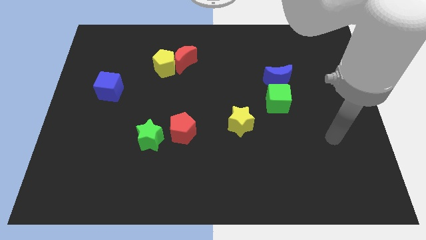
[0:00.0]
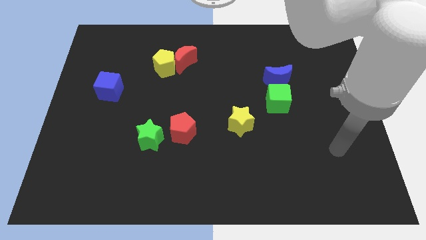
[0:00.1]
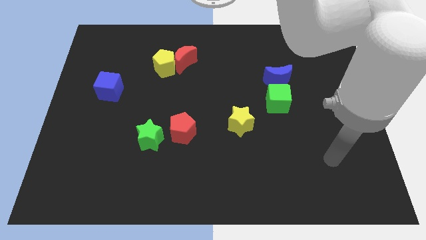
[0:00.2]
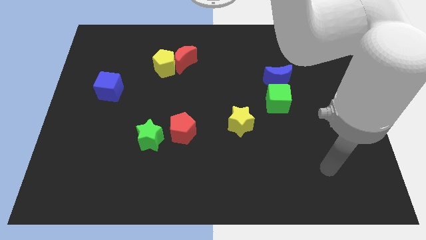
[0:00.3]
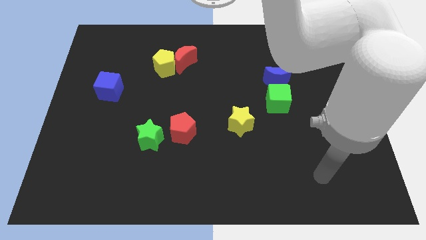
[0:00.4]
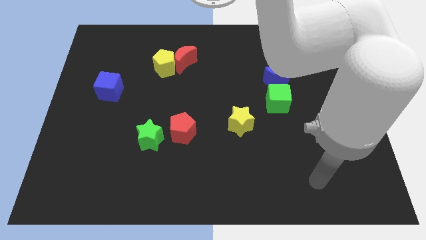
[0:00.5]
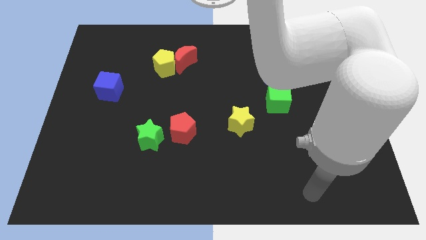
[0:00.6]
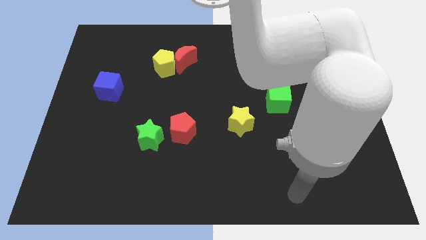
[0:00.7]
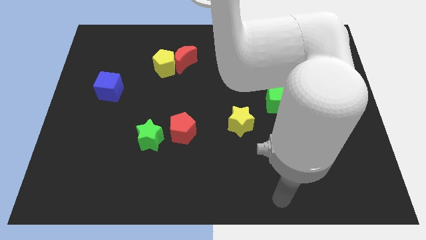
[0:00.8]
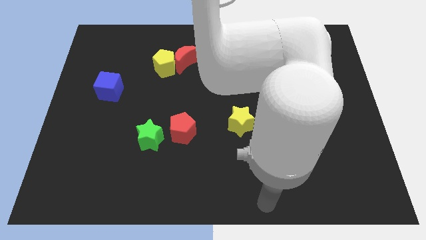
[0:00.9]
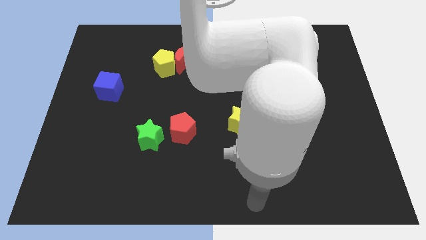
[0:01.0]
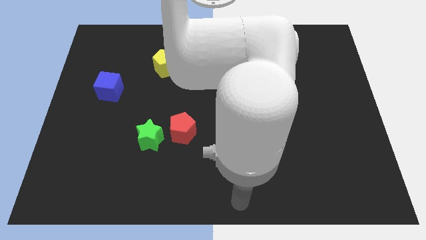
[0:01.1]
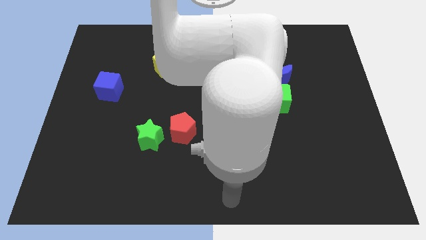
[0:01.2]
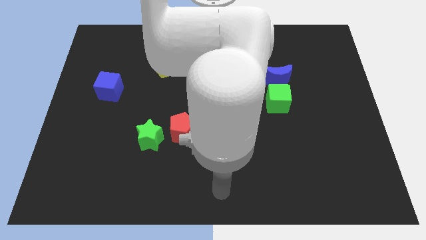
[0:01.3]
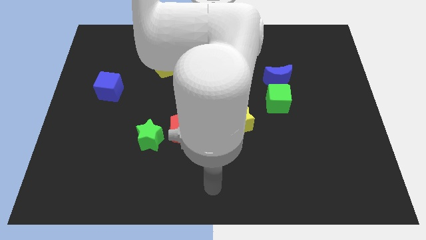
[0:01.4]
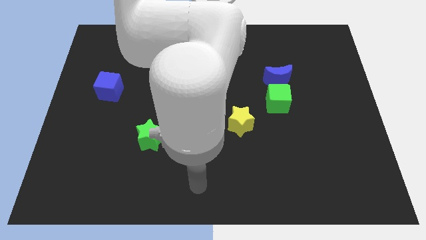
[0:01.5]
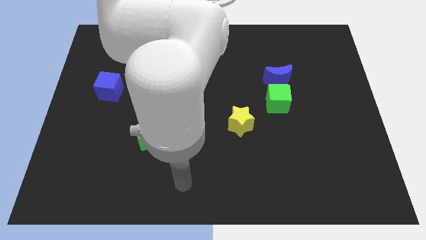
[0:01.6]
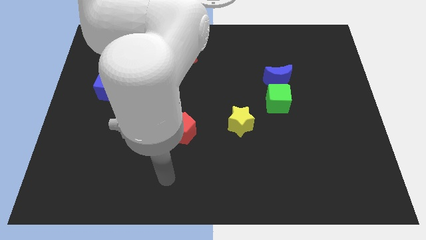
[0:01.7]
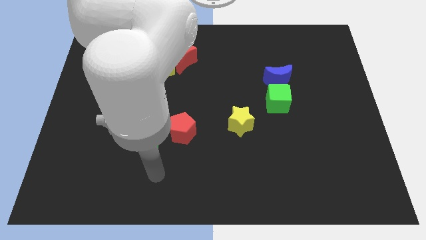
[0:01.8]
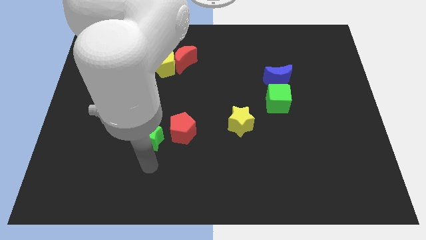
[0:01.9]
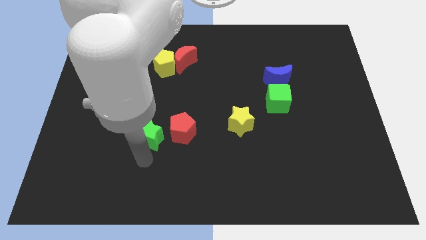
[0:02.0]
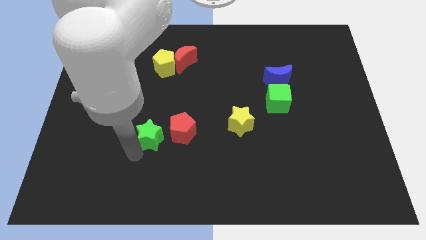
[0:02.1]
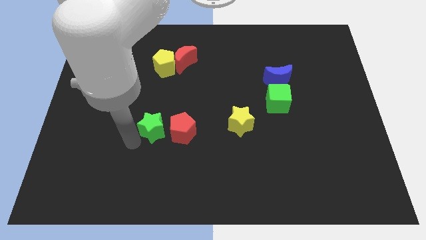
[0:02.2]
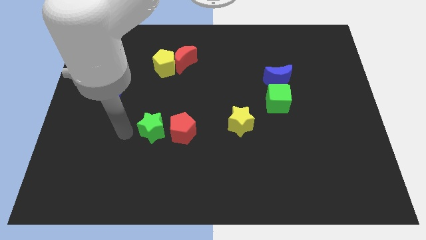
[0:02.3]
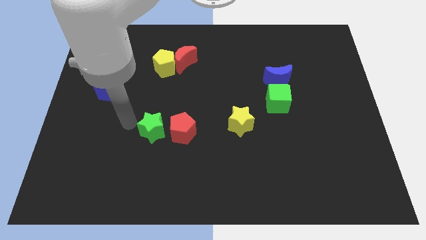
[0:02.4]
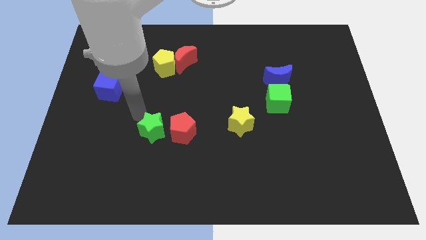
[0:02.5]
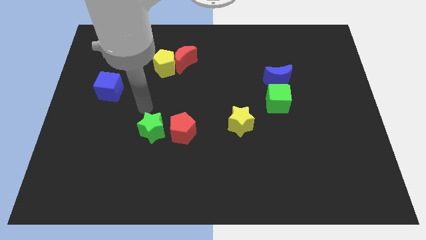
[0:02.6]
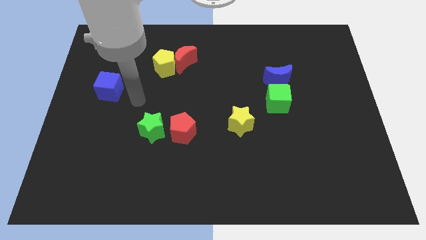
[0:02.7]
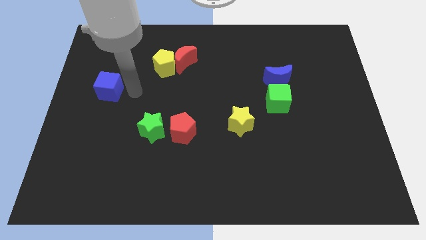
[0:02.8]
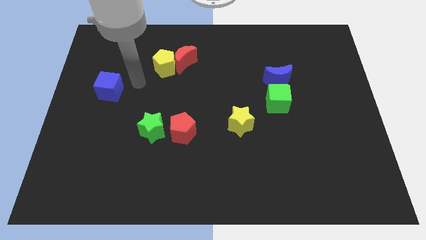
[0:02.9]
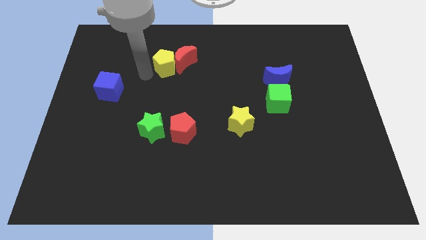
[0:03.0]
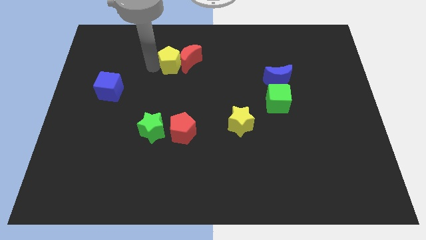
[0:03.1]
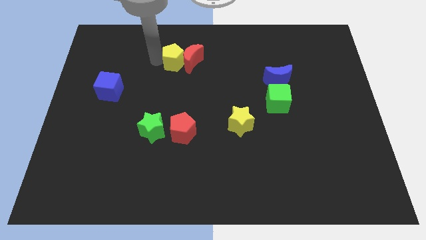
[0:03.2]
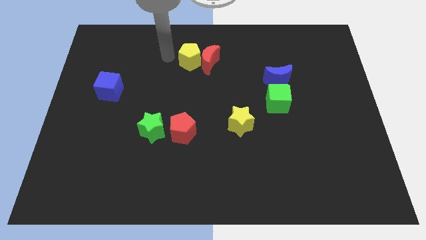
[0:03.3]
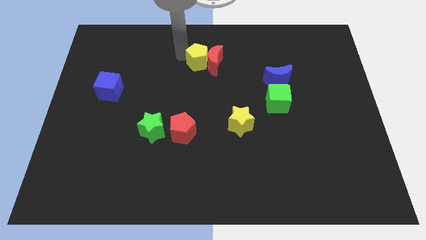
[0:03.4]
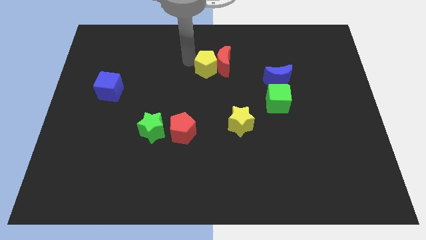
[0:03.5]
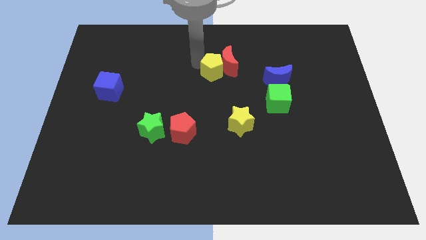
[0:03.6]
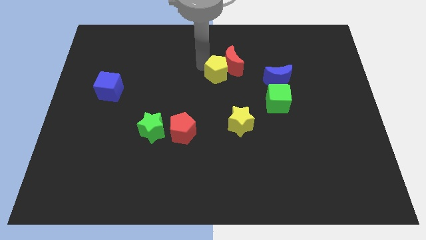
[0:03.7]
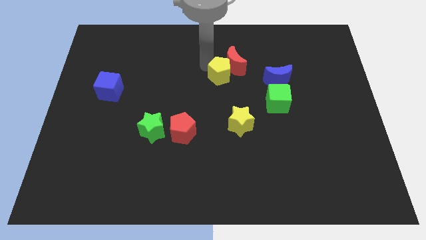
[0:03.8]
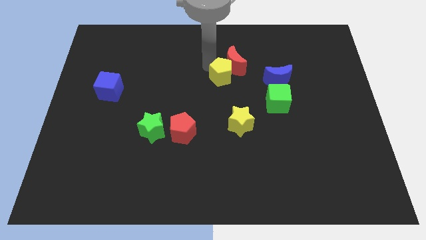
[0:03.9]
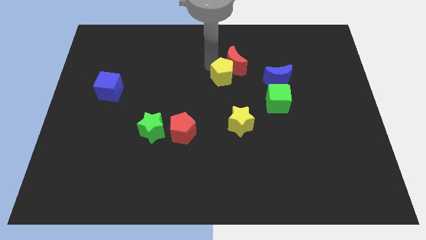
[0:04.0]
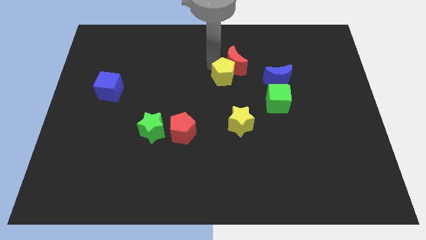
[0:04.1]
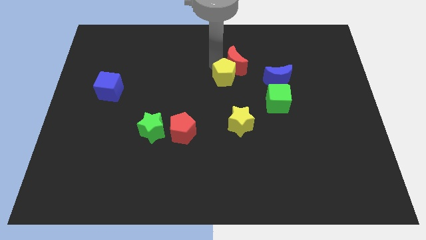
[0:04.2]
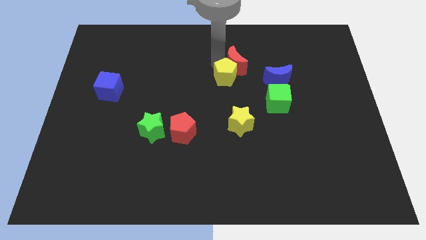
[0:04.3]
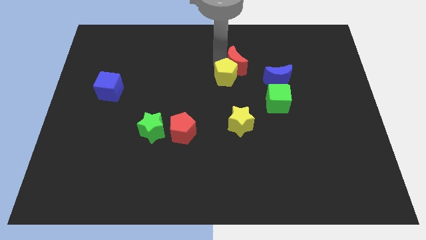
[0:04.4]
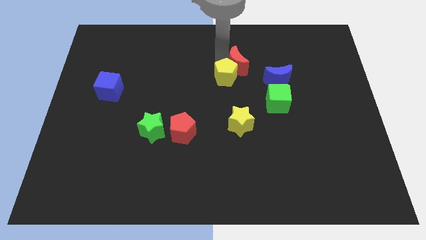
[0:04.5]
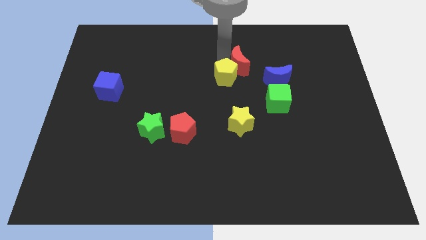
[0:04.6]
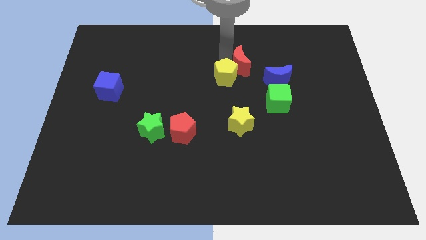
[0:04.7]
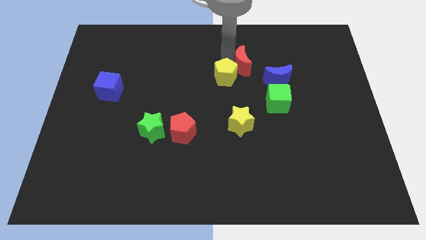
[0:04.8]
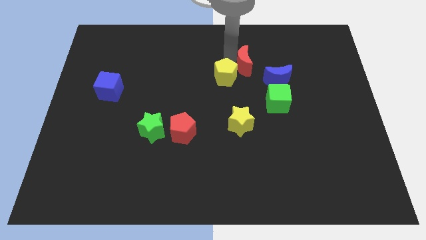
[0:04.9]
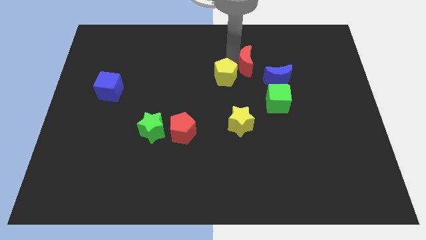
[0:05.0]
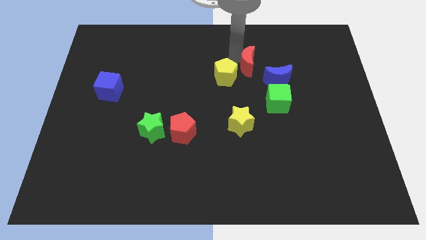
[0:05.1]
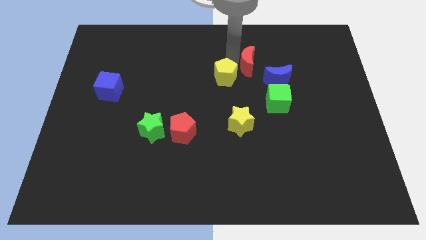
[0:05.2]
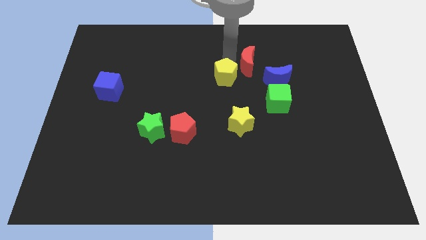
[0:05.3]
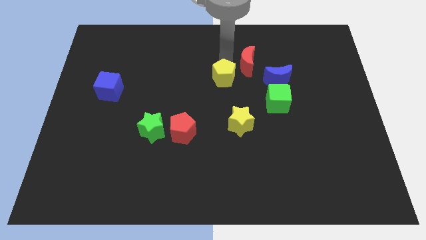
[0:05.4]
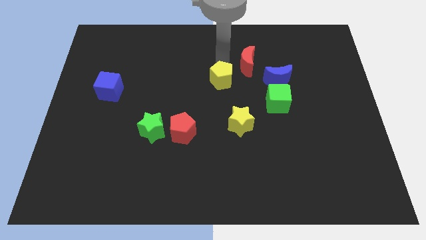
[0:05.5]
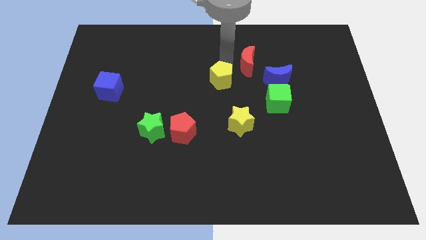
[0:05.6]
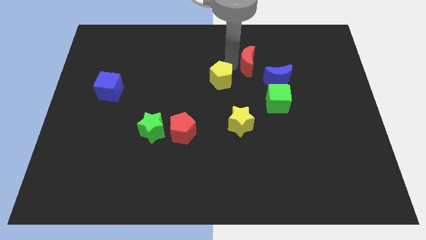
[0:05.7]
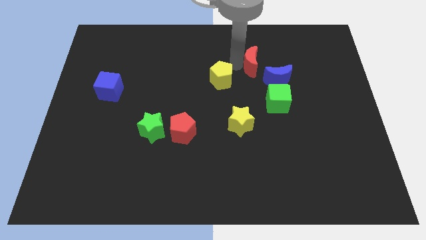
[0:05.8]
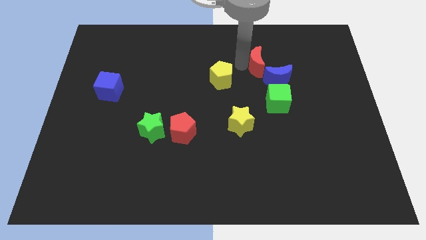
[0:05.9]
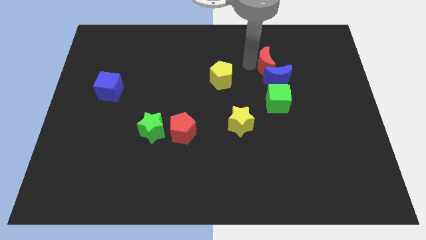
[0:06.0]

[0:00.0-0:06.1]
slide the red moon to the right

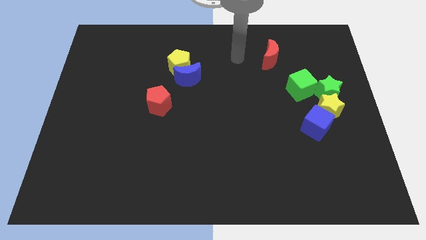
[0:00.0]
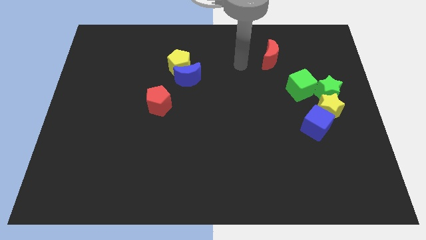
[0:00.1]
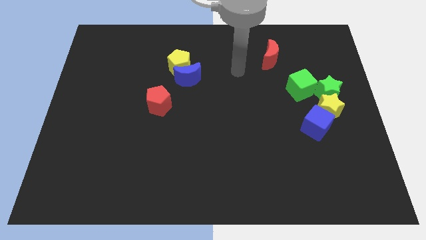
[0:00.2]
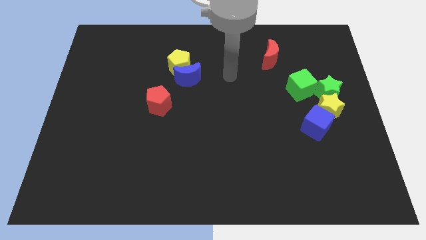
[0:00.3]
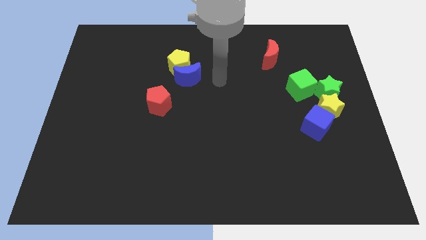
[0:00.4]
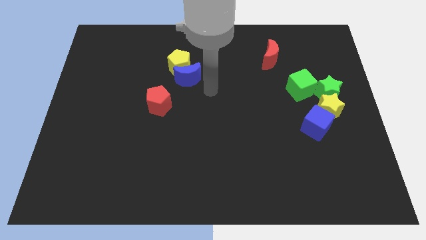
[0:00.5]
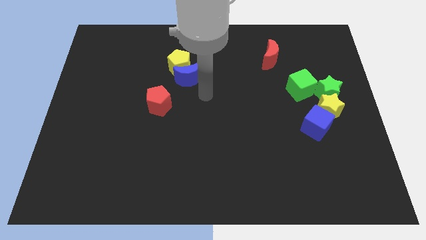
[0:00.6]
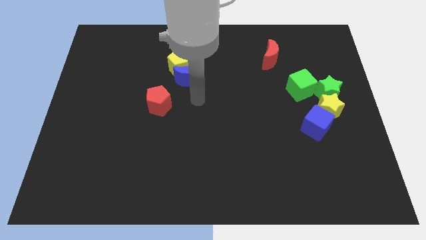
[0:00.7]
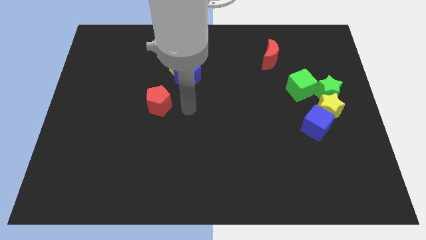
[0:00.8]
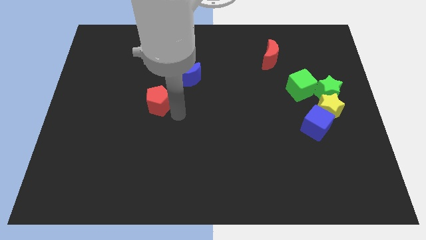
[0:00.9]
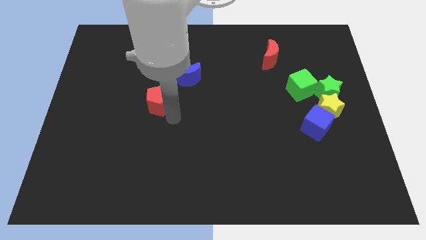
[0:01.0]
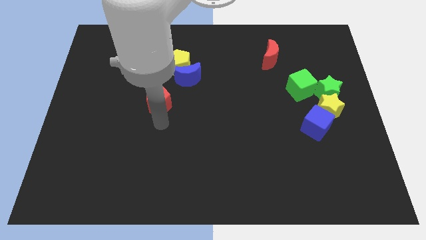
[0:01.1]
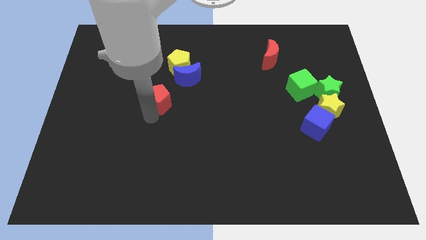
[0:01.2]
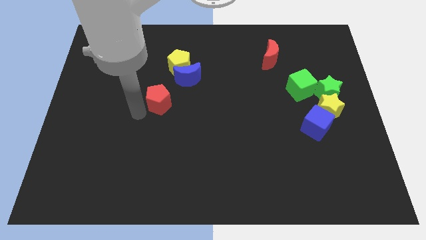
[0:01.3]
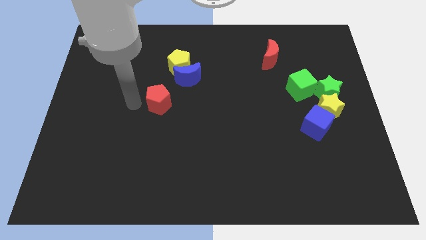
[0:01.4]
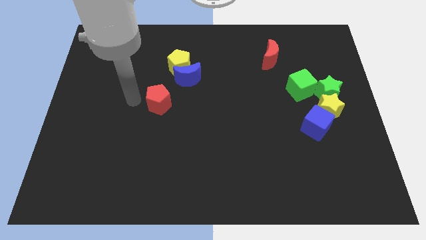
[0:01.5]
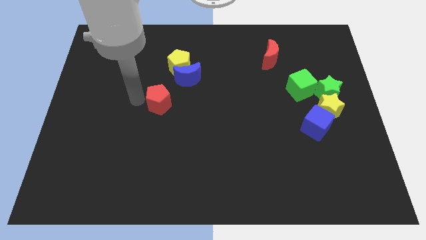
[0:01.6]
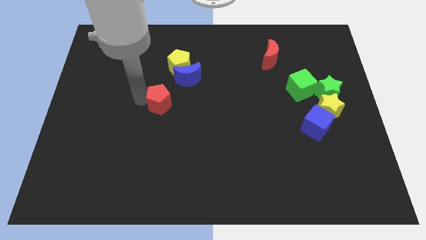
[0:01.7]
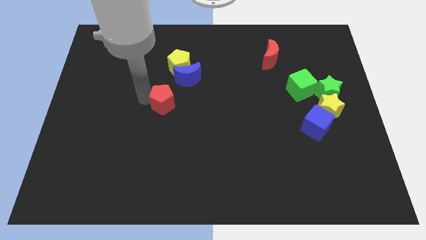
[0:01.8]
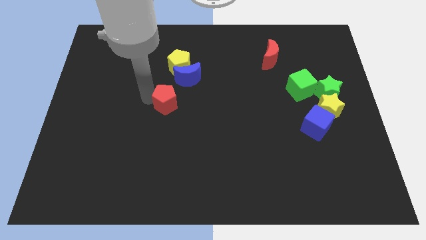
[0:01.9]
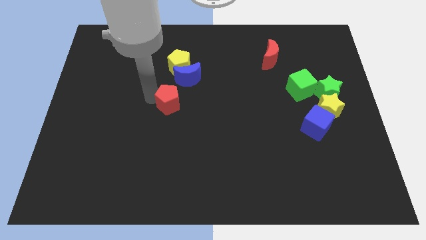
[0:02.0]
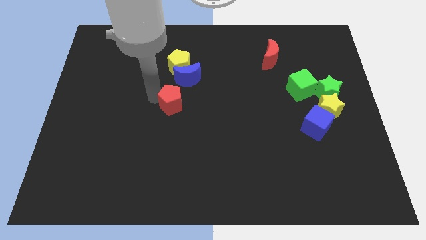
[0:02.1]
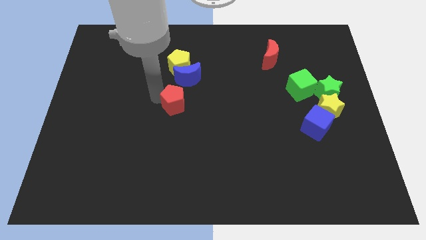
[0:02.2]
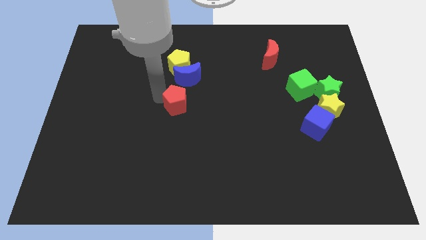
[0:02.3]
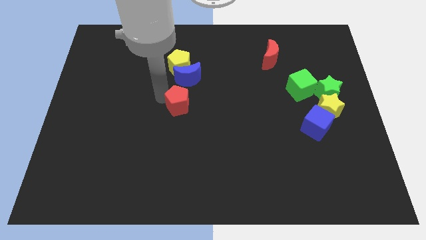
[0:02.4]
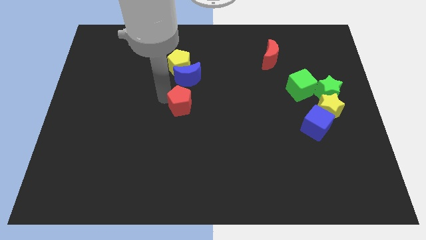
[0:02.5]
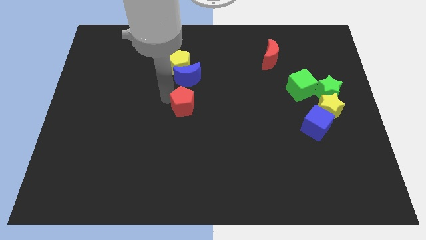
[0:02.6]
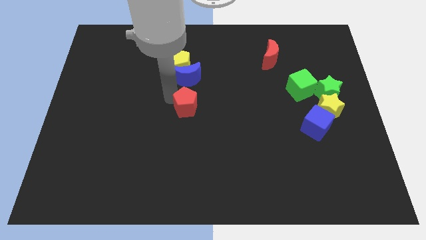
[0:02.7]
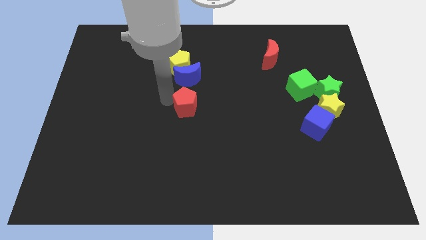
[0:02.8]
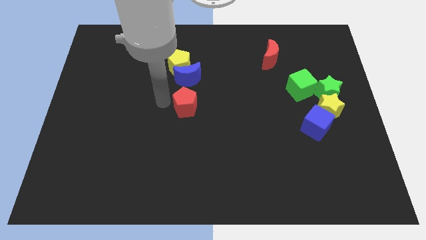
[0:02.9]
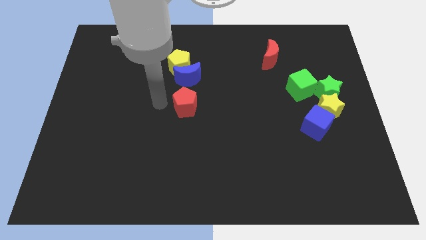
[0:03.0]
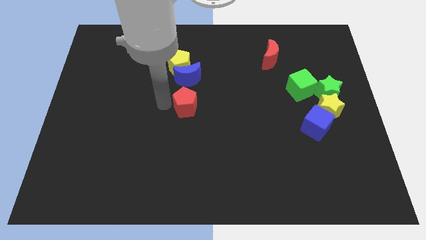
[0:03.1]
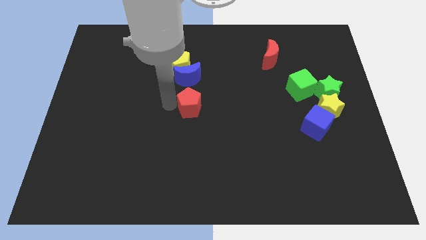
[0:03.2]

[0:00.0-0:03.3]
slightly slide the red pentagon to the right
